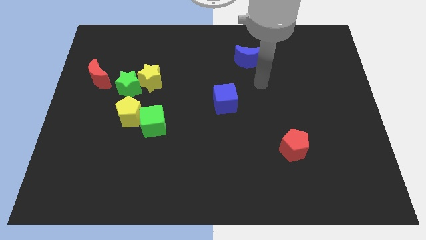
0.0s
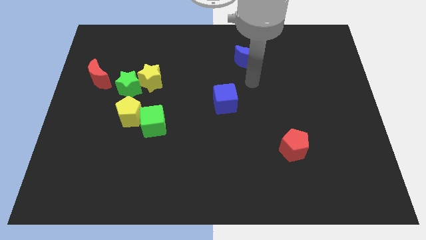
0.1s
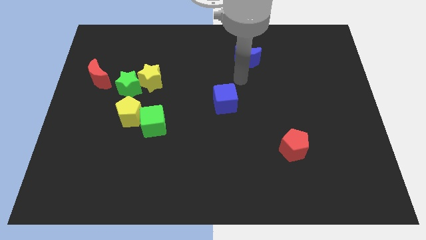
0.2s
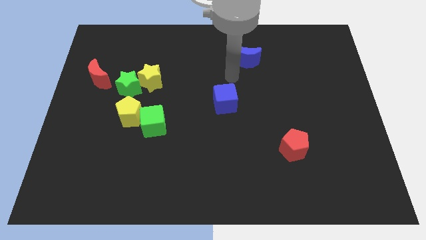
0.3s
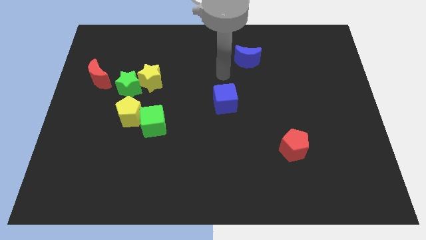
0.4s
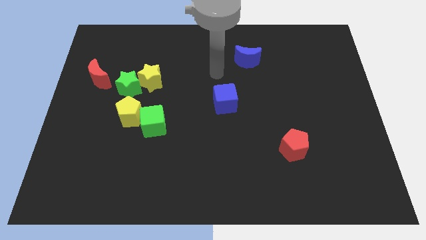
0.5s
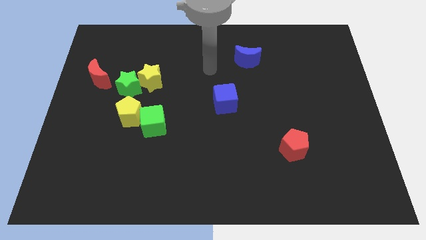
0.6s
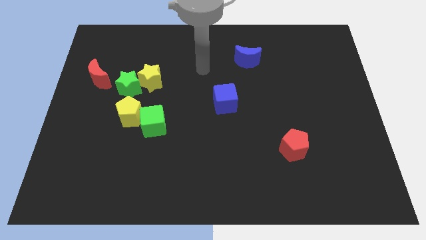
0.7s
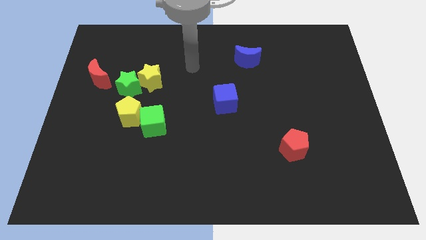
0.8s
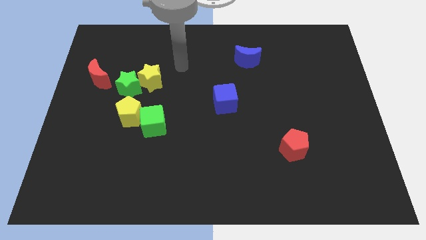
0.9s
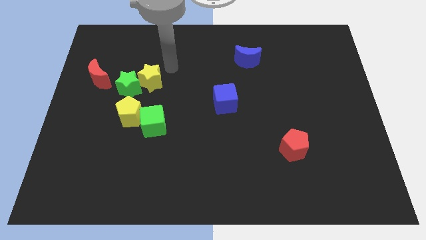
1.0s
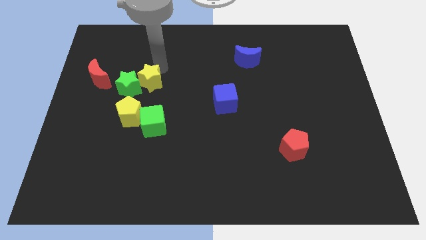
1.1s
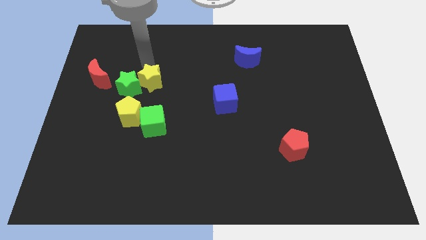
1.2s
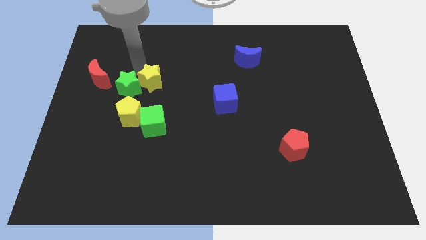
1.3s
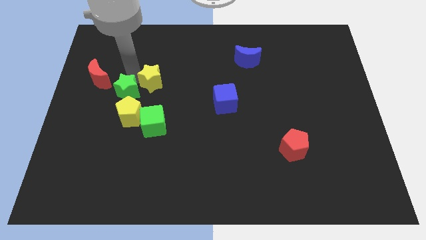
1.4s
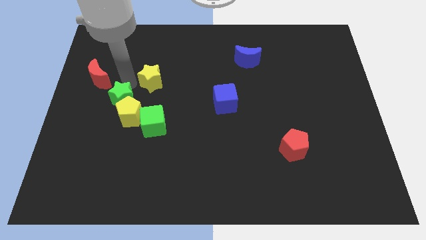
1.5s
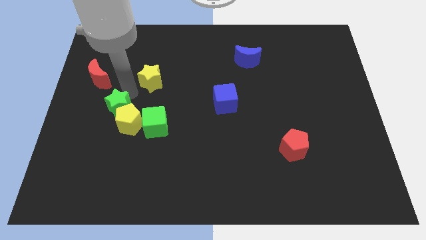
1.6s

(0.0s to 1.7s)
separate the yellow star from the green star

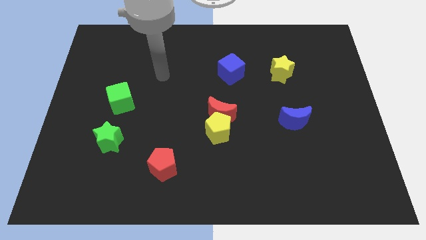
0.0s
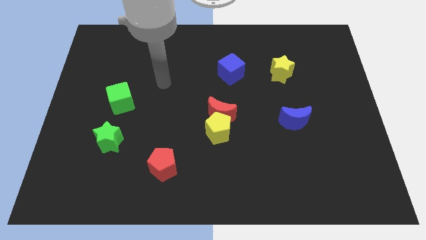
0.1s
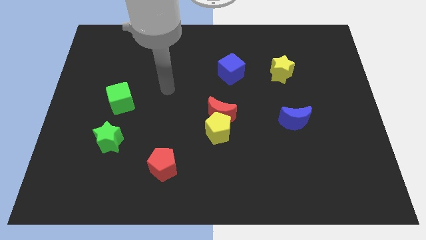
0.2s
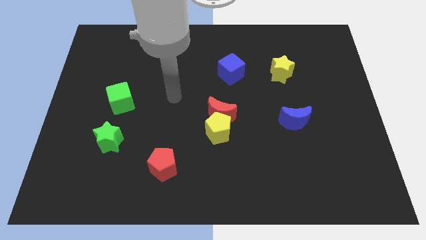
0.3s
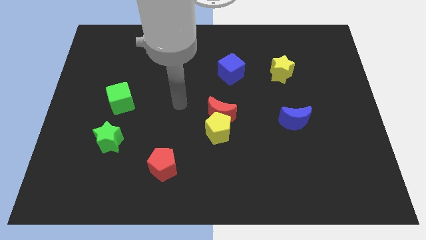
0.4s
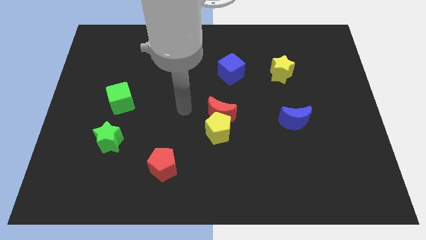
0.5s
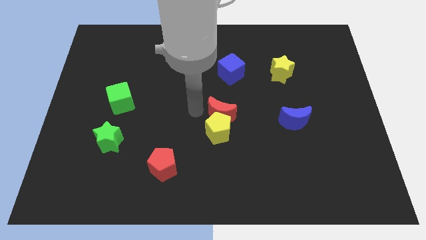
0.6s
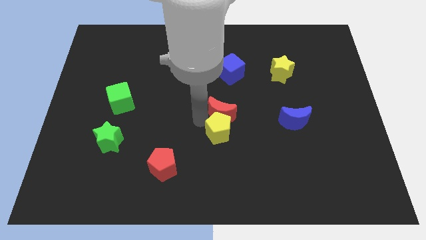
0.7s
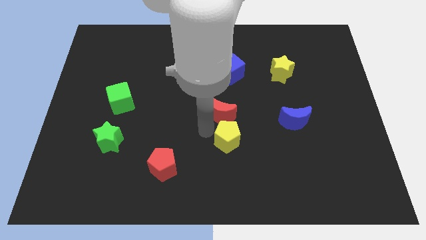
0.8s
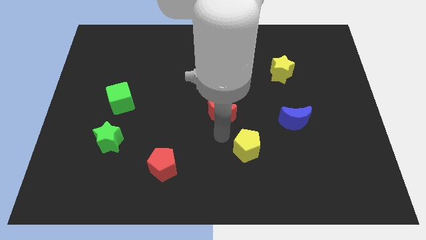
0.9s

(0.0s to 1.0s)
move the red moon away from the yellow pentagon

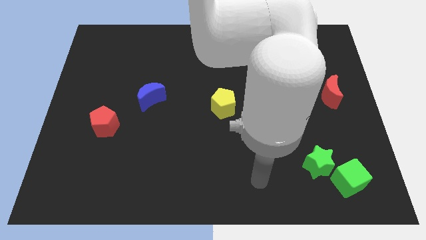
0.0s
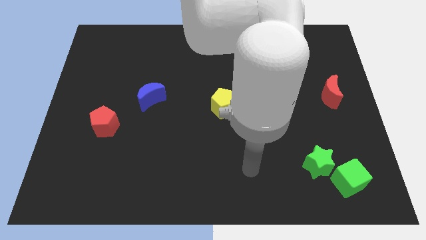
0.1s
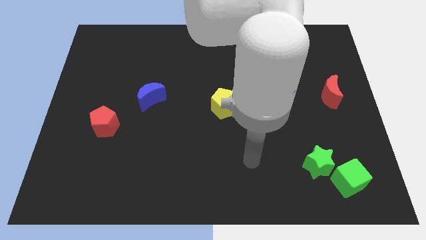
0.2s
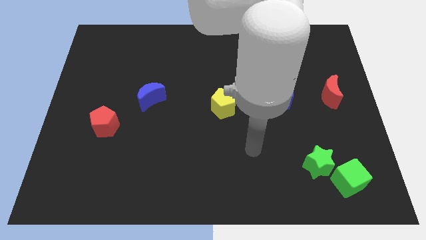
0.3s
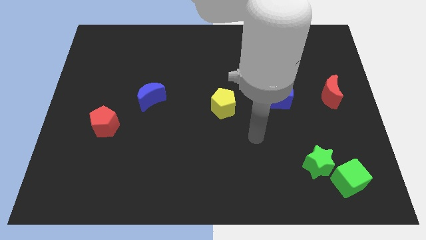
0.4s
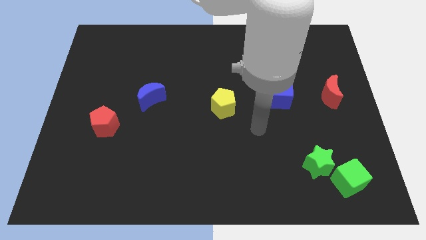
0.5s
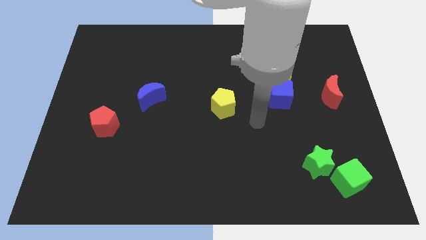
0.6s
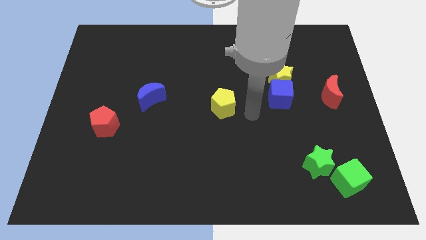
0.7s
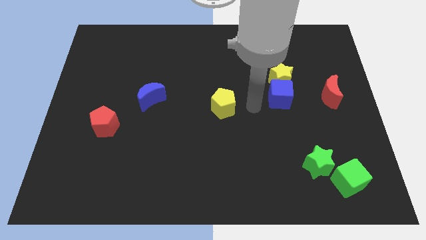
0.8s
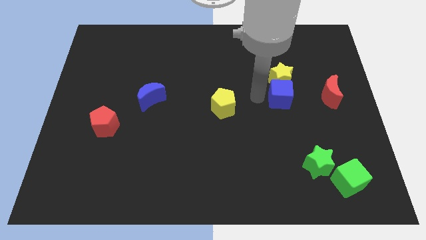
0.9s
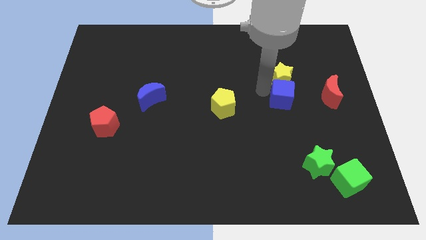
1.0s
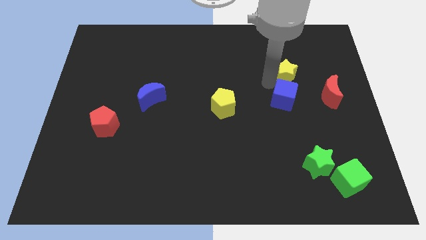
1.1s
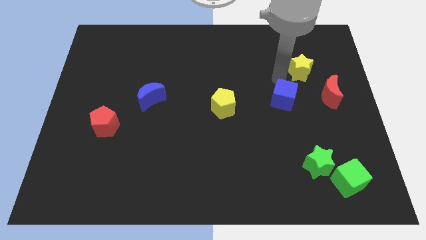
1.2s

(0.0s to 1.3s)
pull the blue cube apart from the yellow star

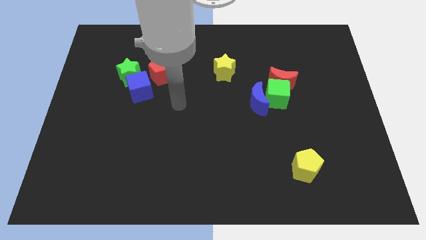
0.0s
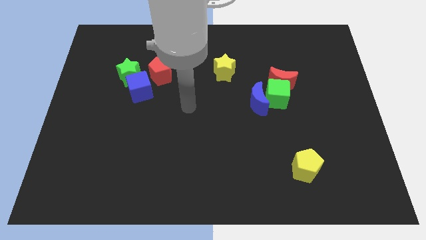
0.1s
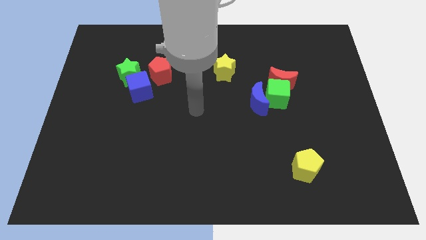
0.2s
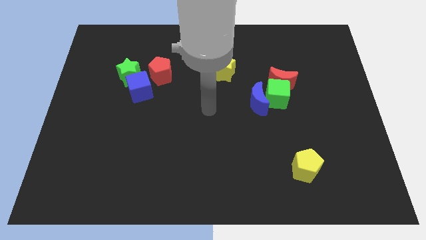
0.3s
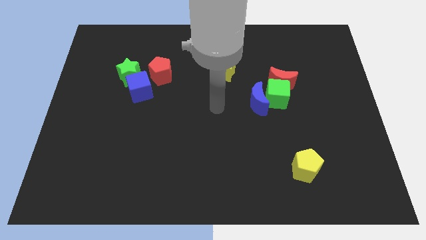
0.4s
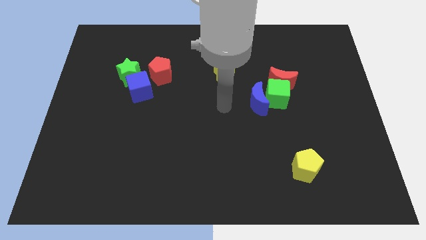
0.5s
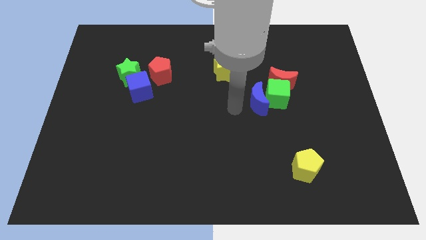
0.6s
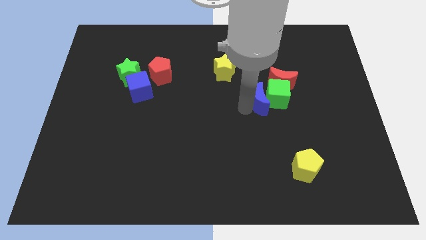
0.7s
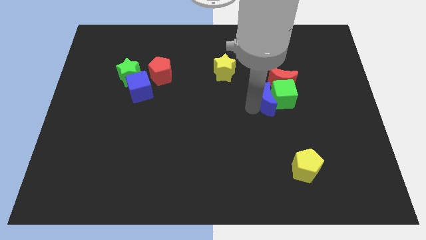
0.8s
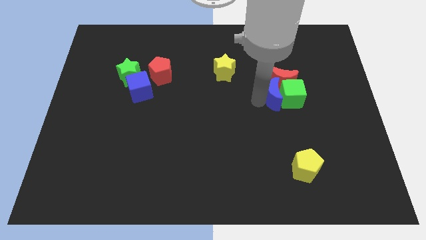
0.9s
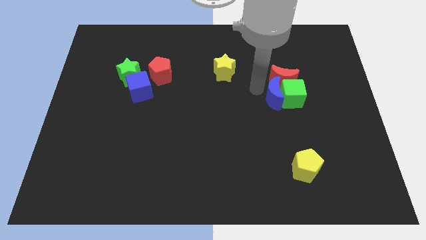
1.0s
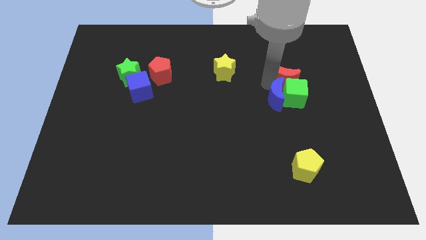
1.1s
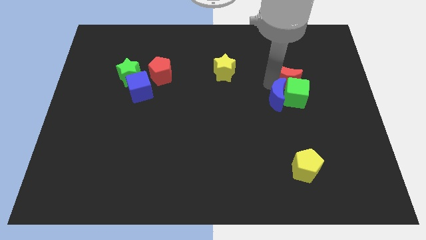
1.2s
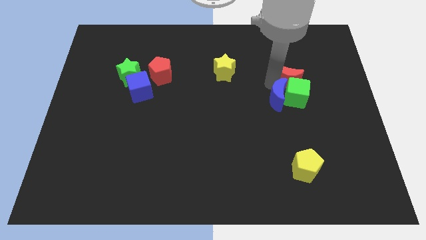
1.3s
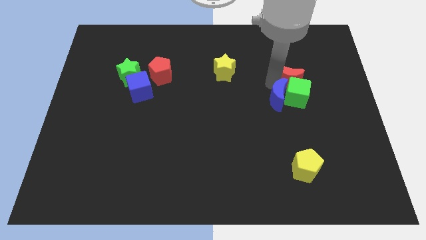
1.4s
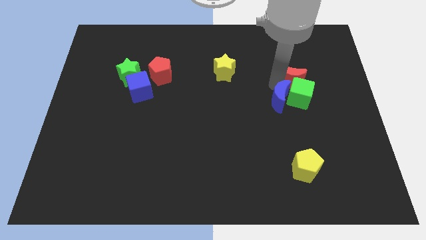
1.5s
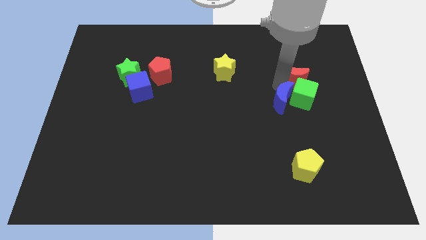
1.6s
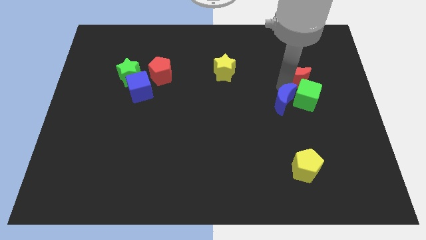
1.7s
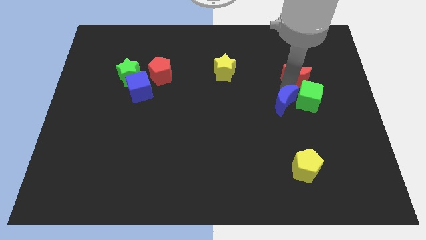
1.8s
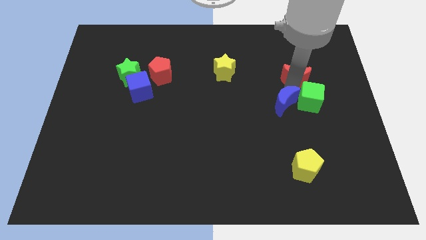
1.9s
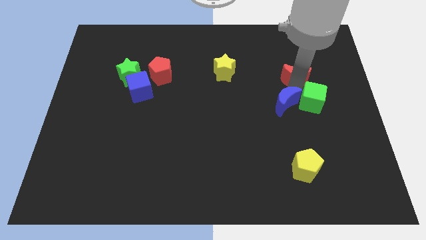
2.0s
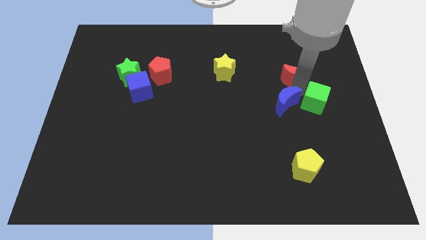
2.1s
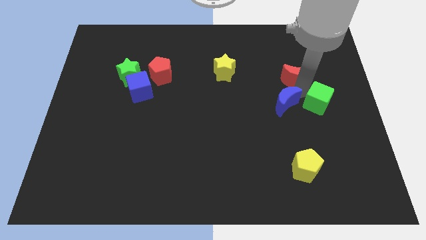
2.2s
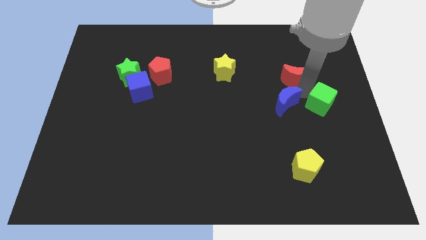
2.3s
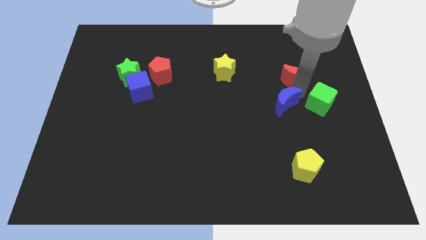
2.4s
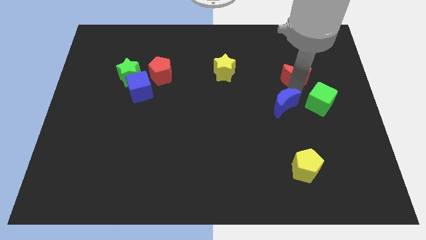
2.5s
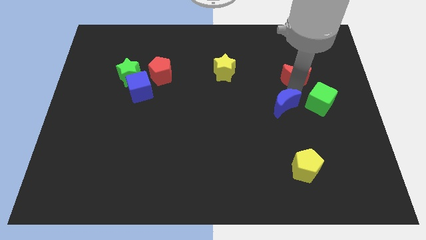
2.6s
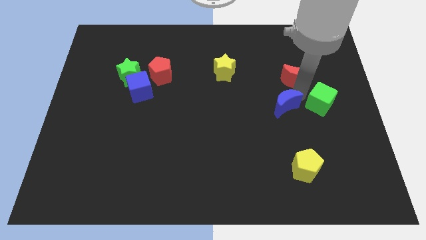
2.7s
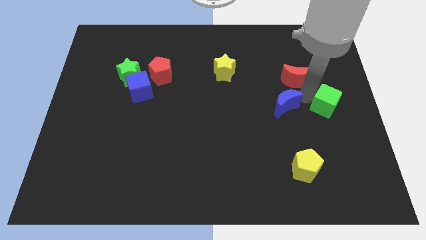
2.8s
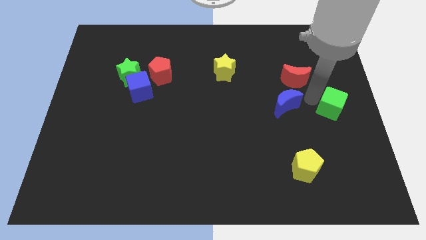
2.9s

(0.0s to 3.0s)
move the green cube away from the red moon and blue moon

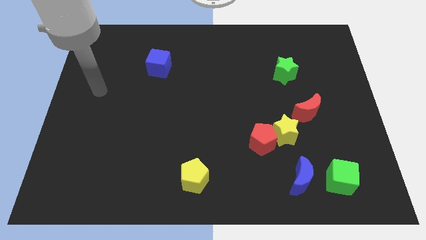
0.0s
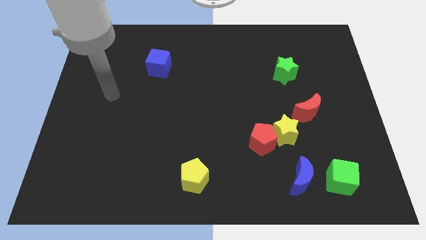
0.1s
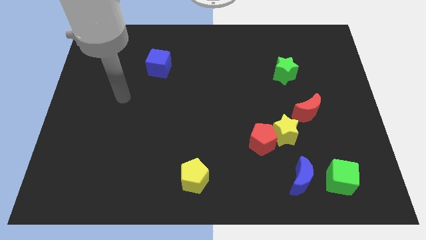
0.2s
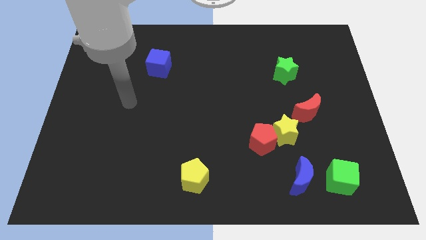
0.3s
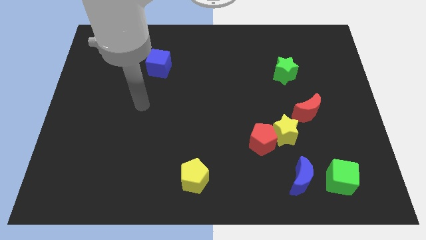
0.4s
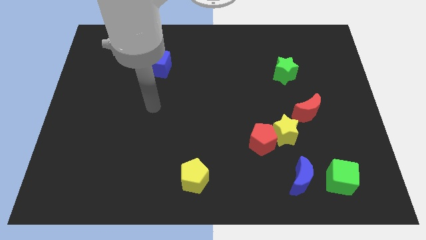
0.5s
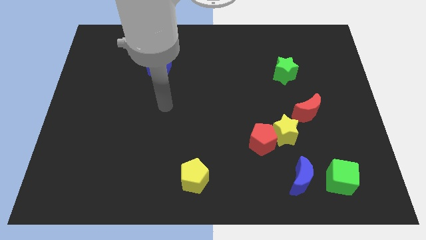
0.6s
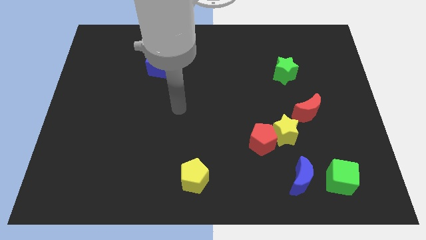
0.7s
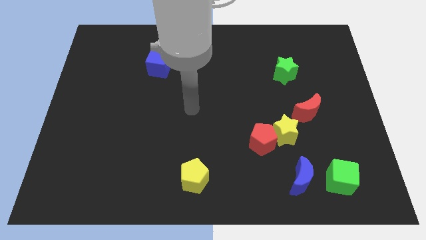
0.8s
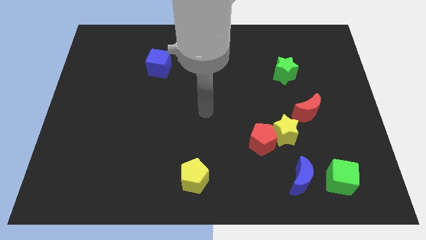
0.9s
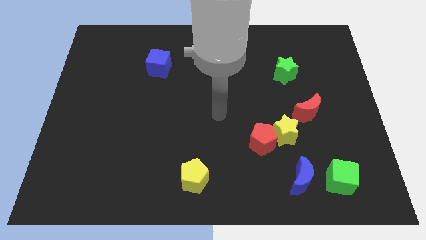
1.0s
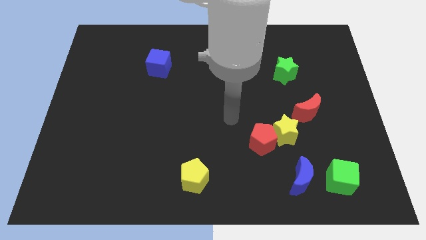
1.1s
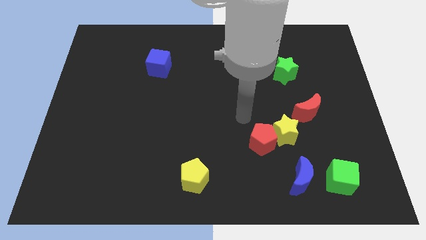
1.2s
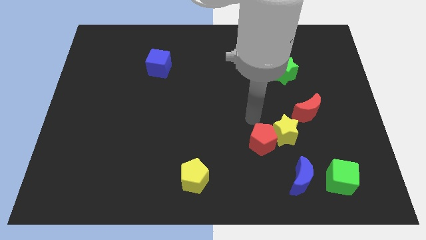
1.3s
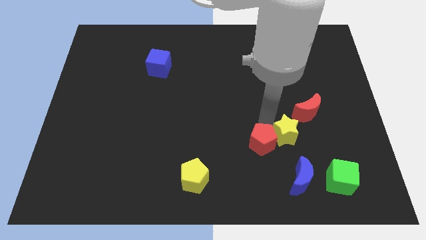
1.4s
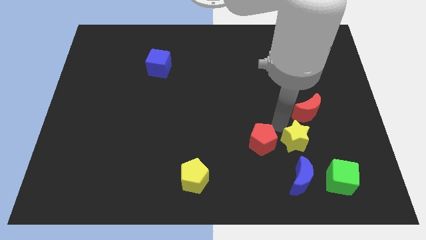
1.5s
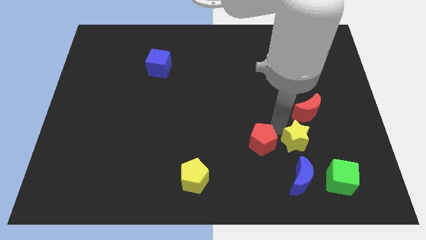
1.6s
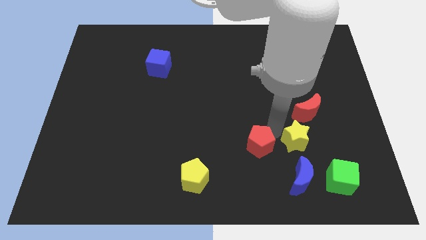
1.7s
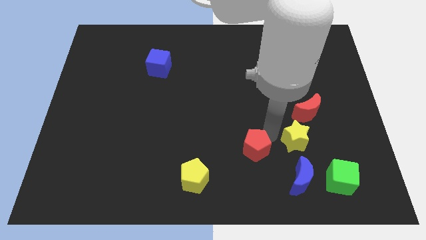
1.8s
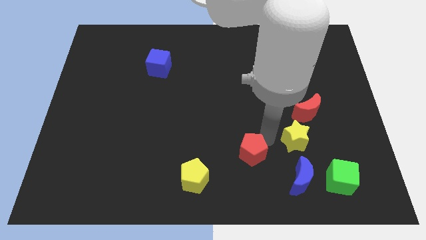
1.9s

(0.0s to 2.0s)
move the red pentagon away from the yellow star

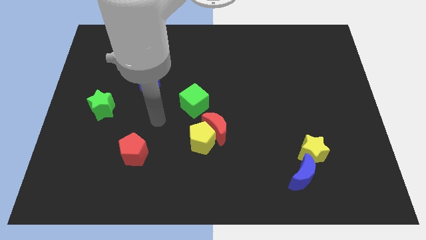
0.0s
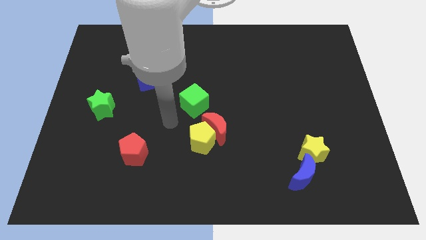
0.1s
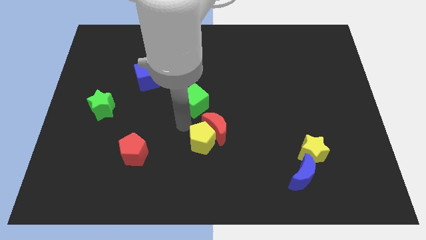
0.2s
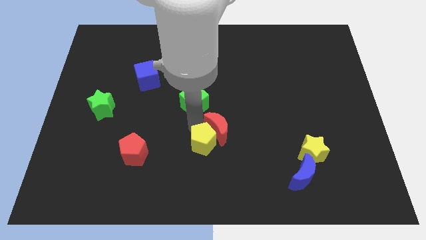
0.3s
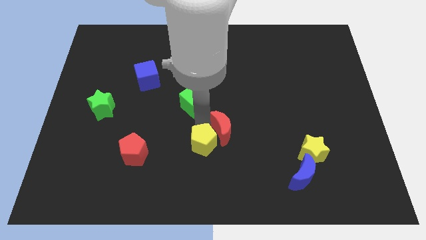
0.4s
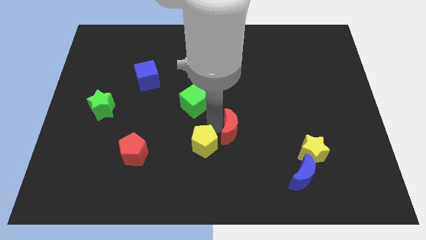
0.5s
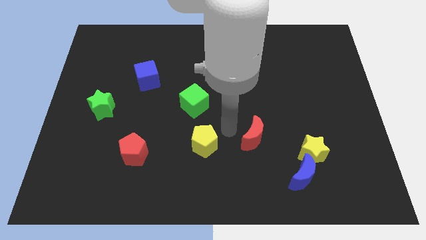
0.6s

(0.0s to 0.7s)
separate the yellow pentagon from the red moon
